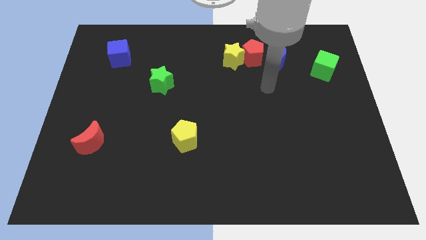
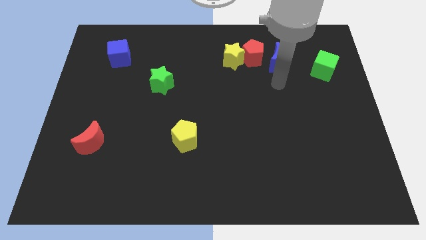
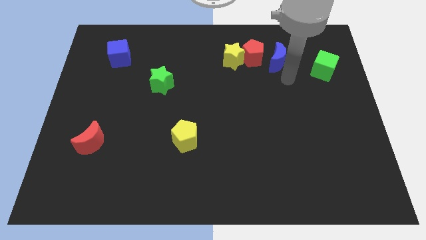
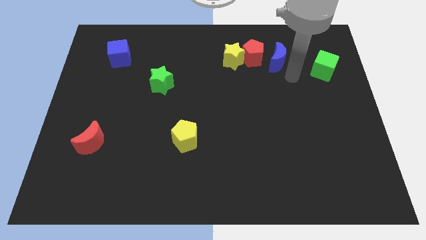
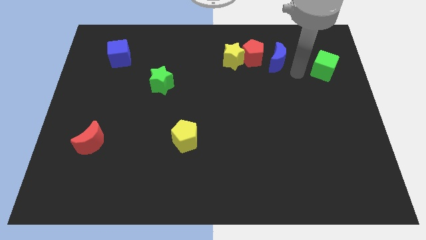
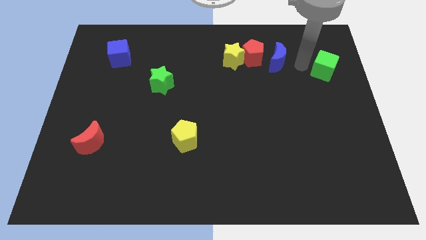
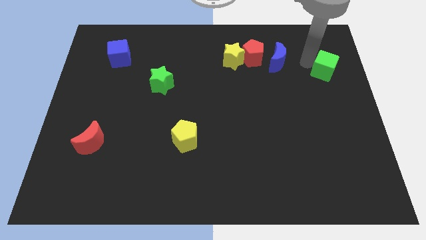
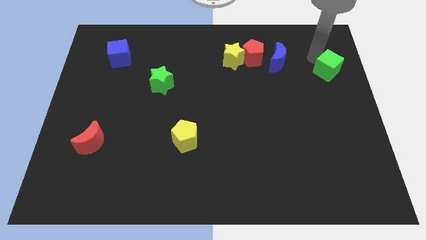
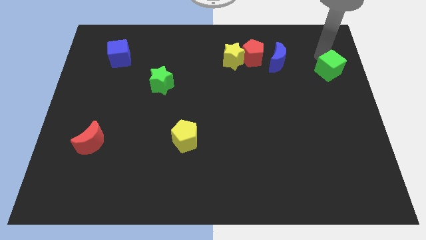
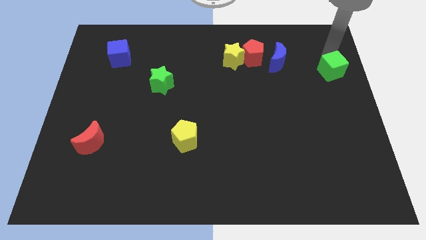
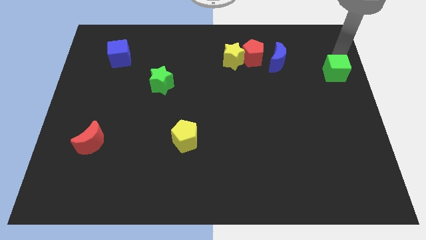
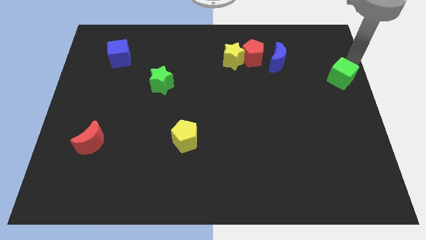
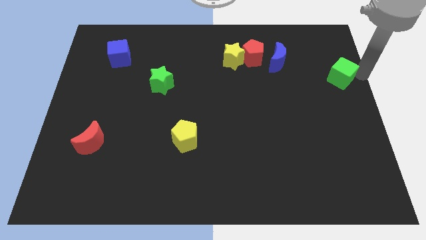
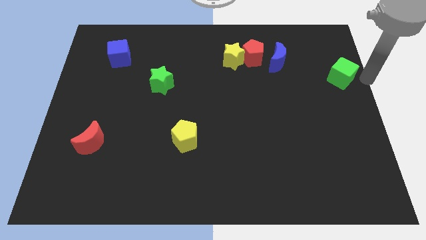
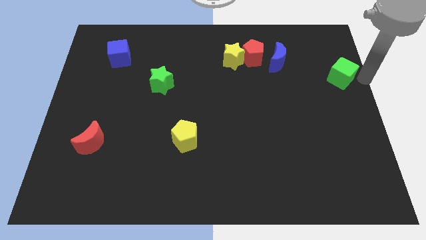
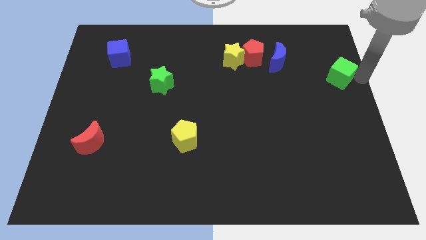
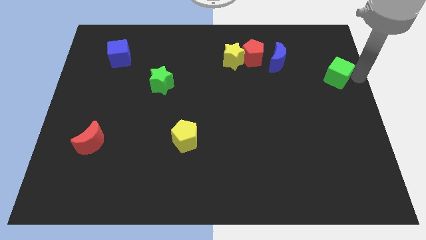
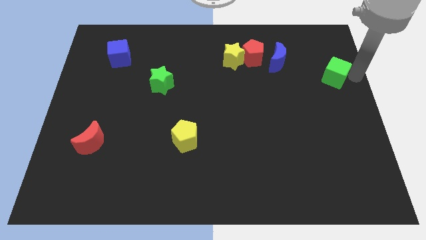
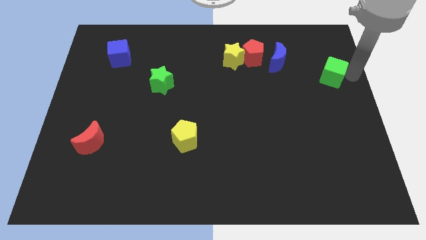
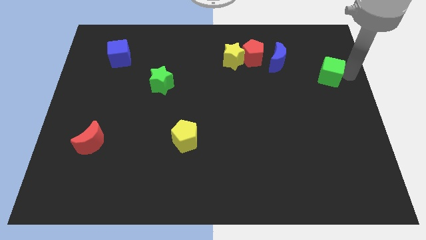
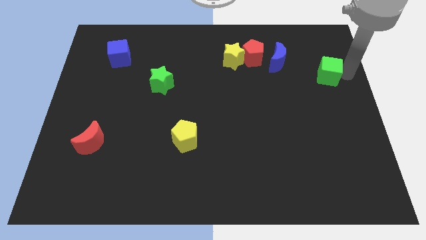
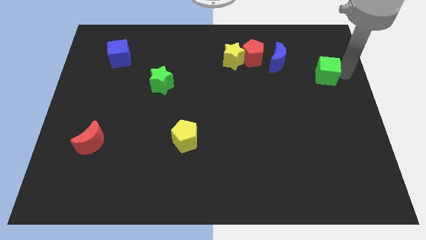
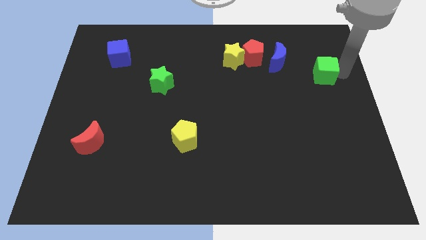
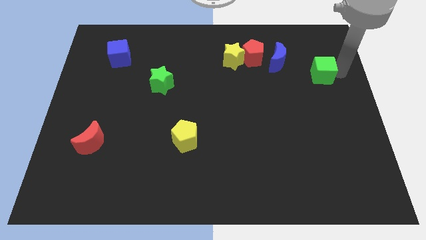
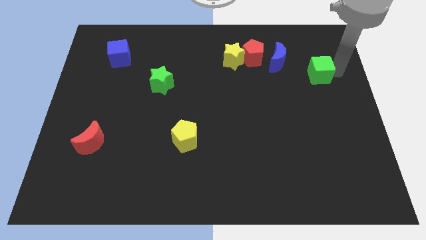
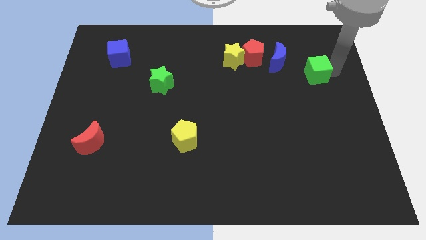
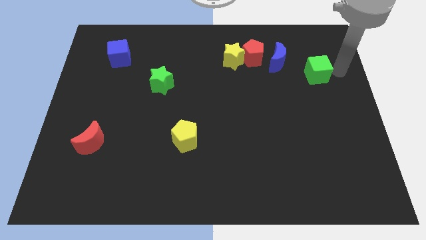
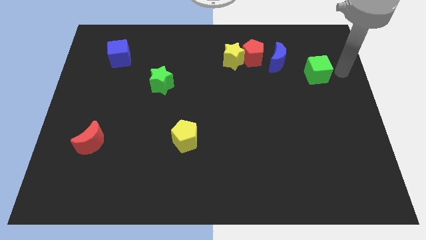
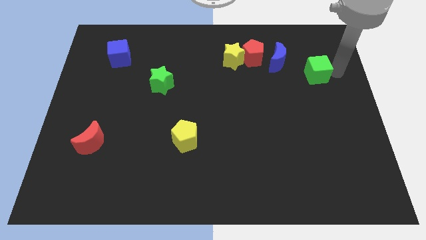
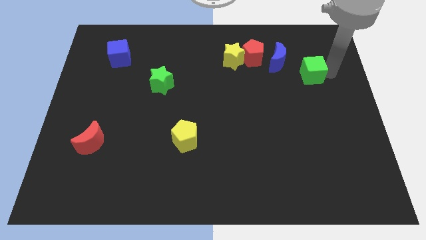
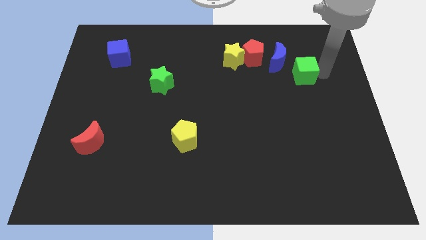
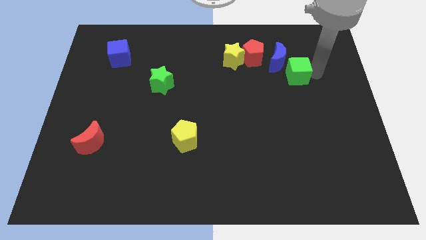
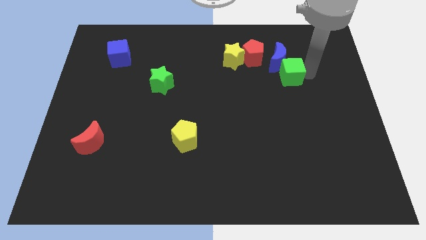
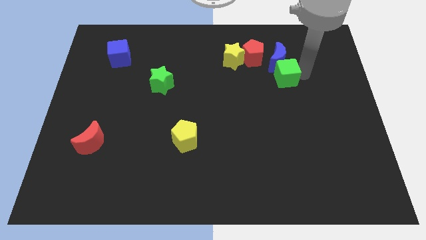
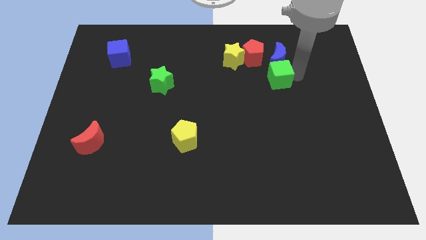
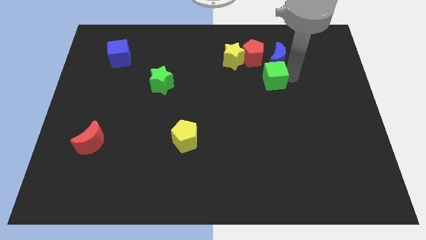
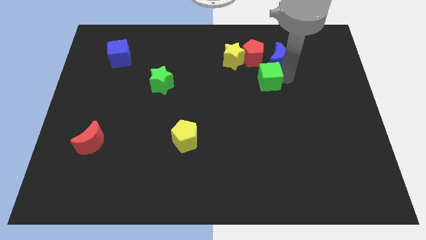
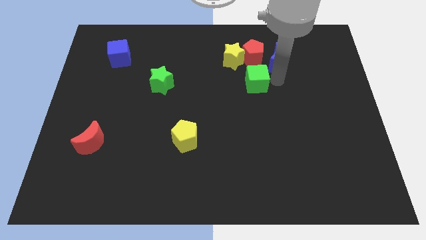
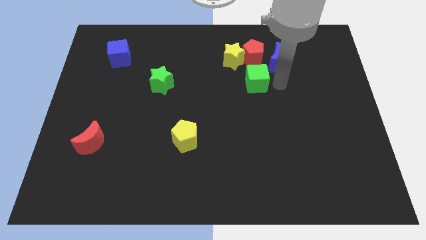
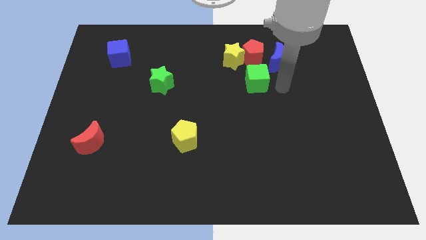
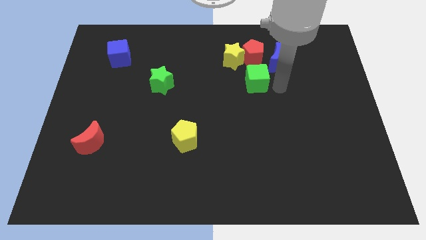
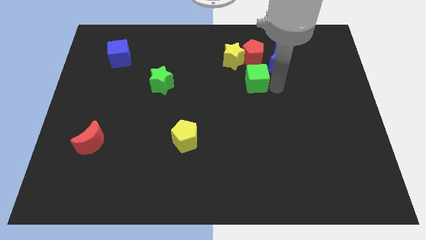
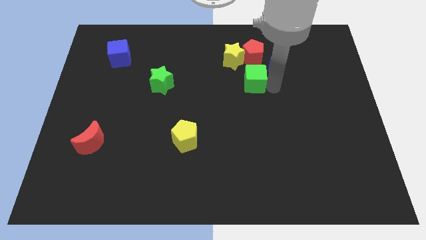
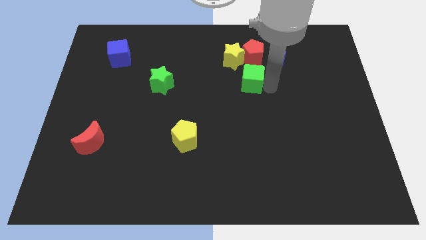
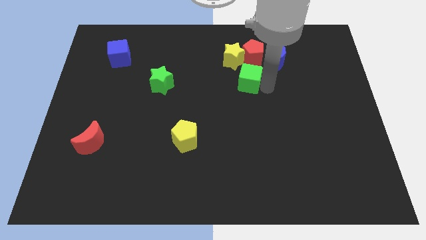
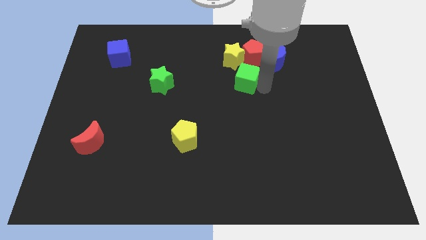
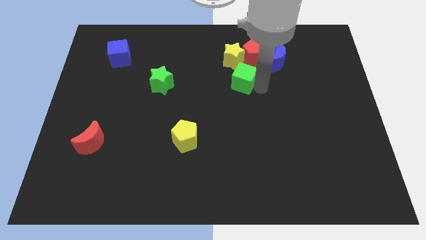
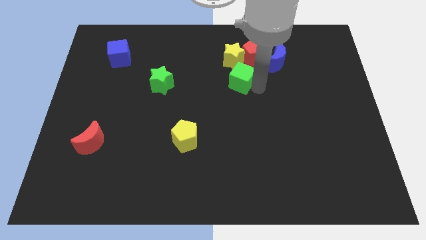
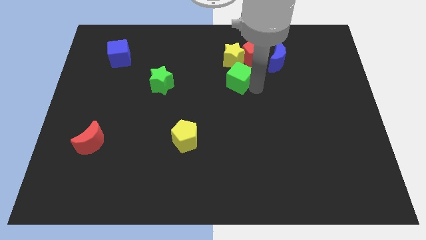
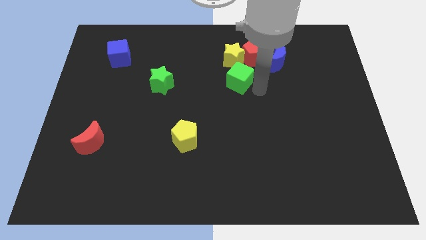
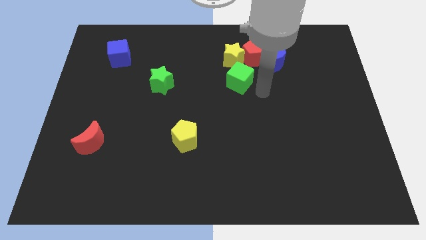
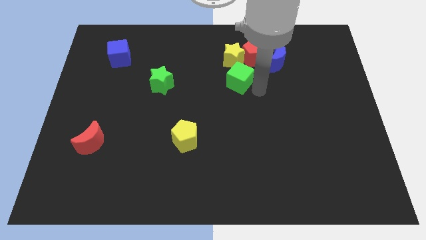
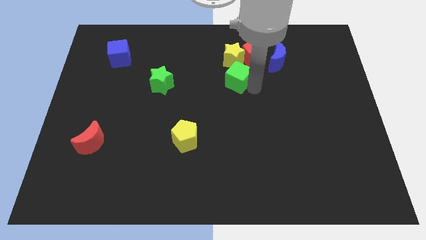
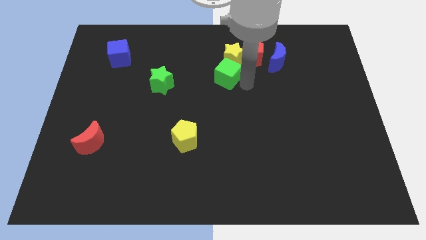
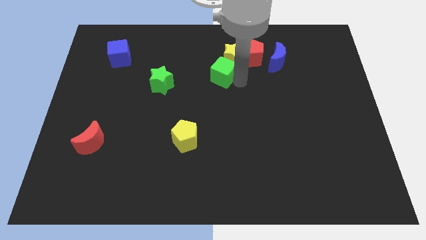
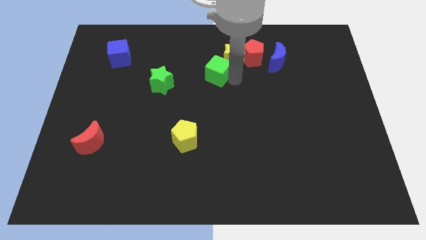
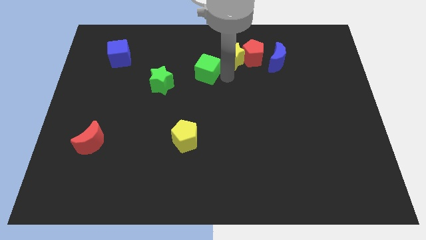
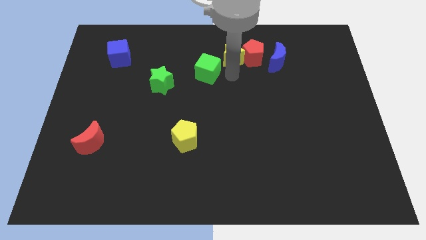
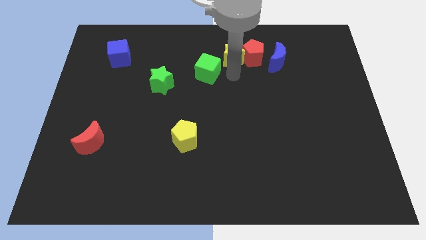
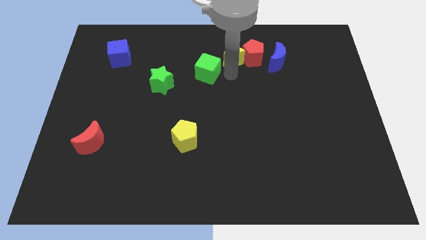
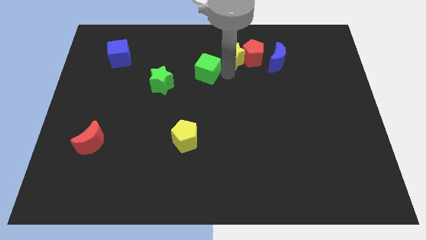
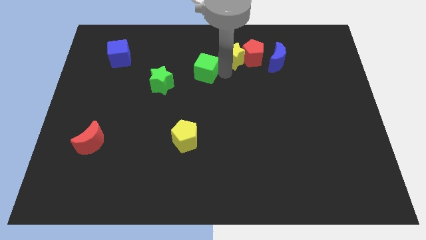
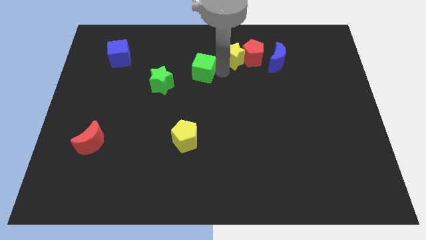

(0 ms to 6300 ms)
slide the green cube to the top right of the green star
